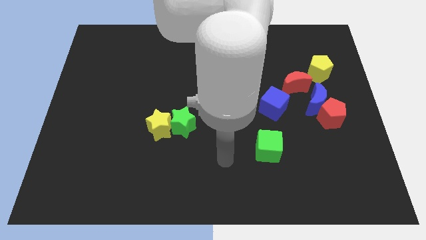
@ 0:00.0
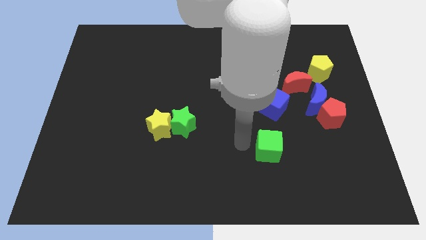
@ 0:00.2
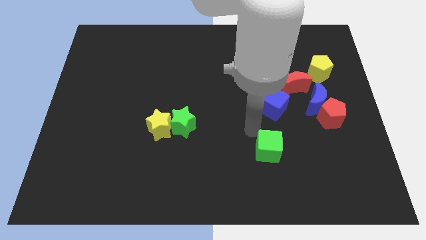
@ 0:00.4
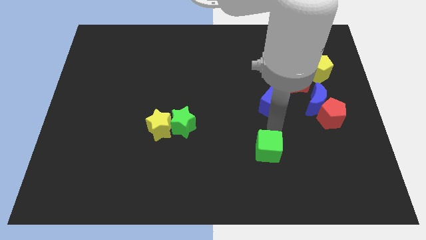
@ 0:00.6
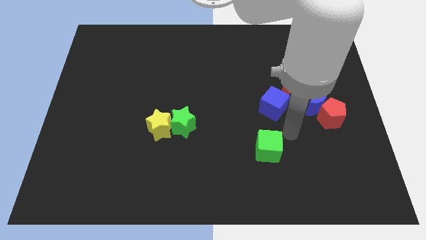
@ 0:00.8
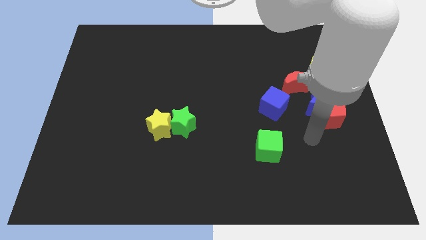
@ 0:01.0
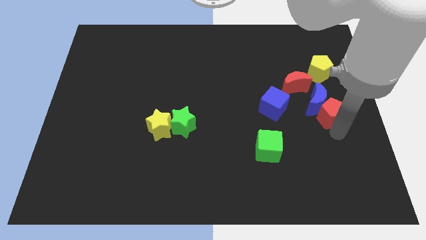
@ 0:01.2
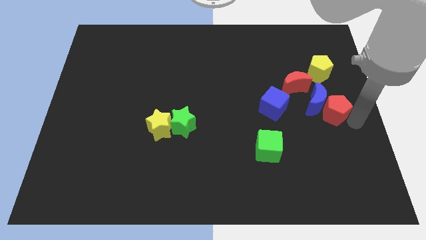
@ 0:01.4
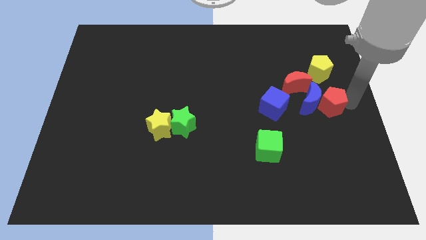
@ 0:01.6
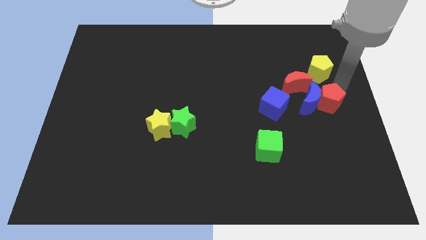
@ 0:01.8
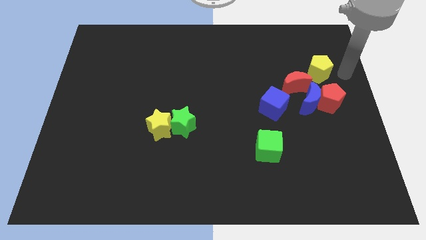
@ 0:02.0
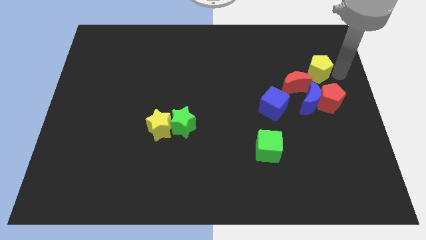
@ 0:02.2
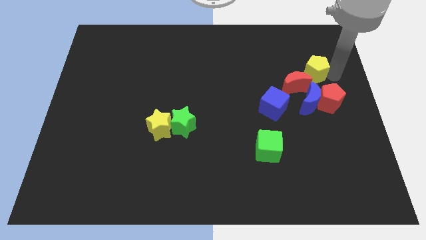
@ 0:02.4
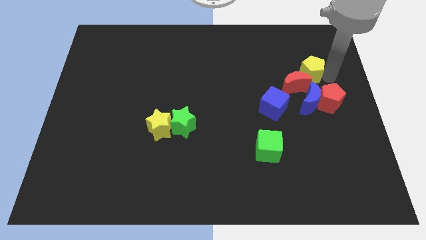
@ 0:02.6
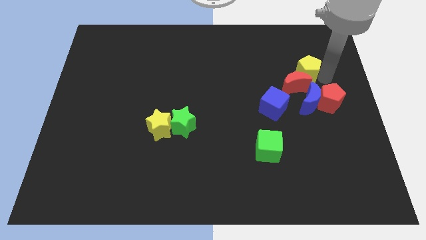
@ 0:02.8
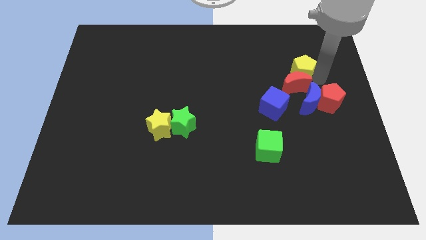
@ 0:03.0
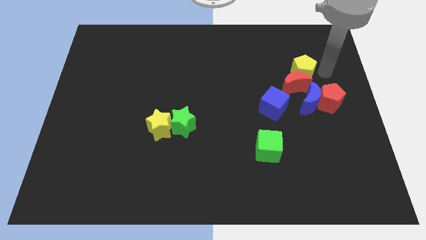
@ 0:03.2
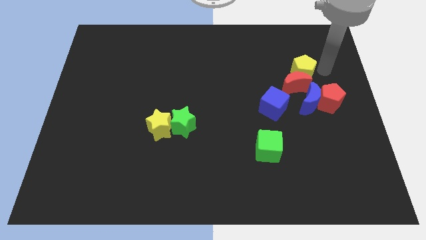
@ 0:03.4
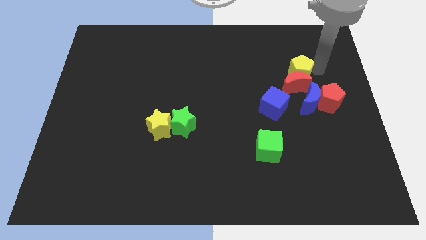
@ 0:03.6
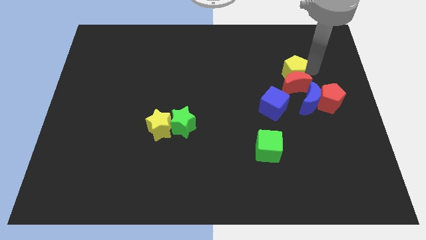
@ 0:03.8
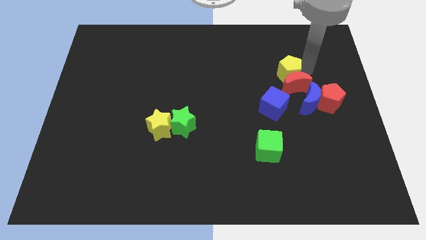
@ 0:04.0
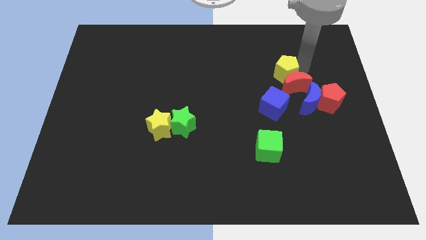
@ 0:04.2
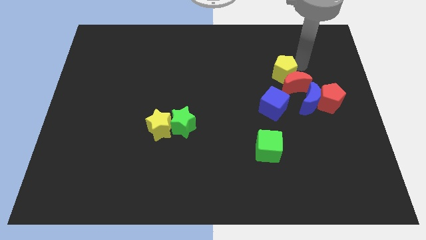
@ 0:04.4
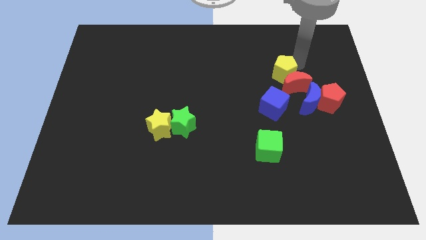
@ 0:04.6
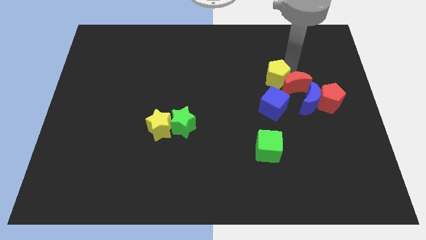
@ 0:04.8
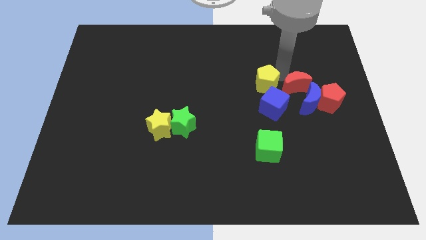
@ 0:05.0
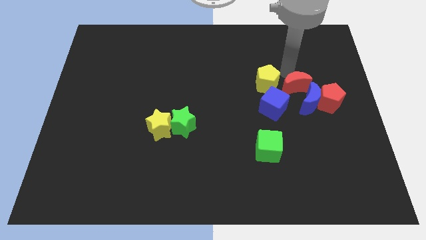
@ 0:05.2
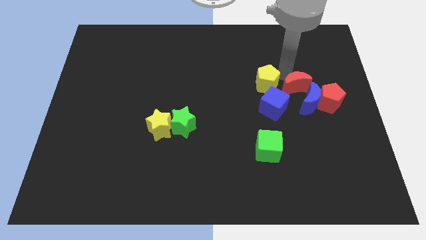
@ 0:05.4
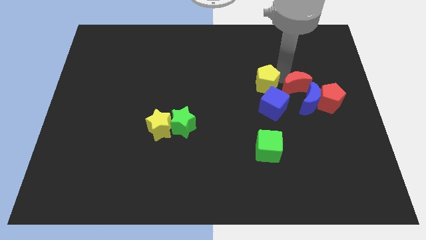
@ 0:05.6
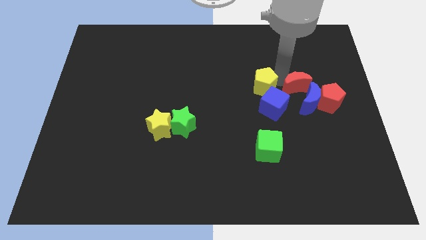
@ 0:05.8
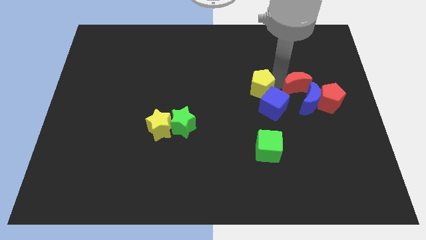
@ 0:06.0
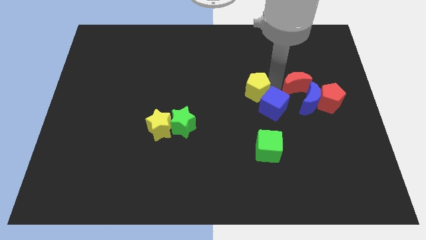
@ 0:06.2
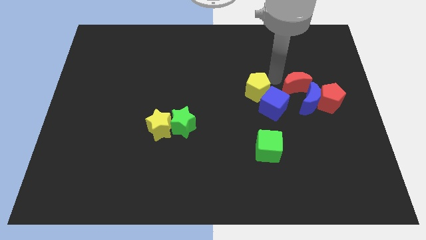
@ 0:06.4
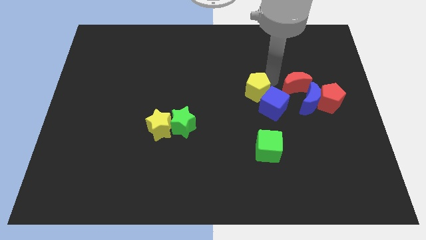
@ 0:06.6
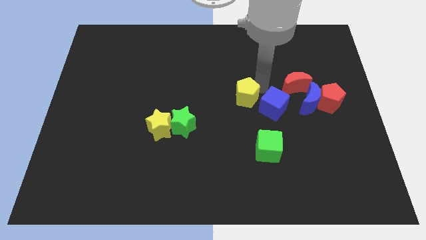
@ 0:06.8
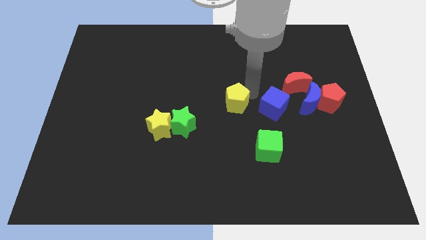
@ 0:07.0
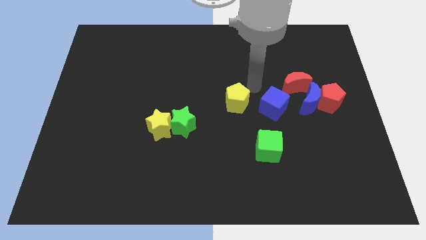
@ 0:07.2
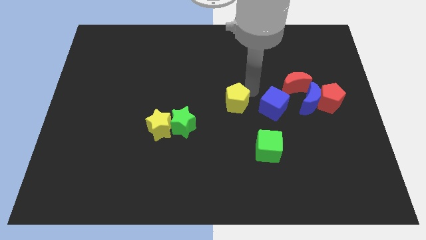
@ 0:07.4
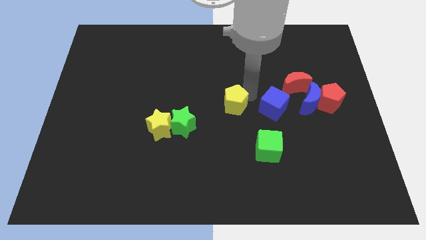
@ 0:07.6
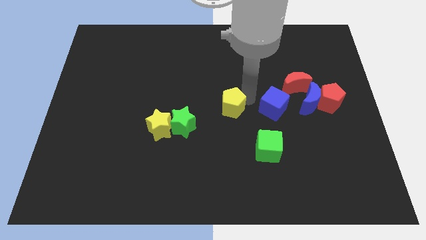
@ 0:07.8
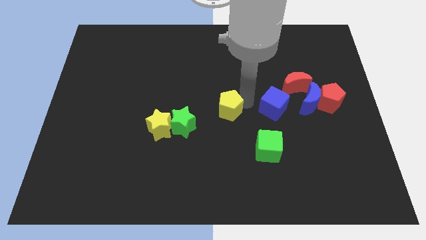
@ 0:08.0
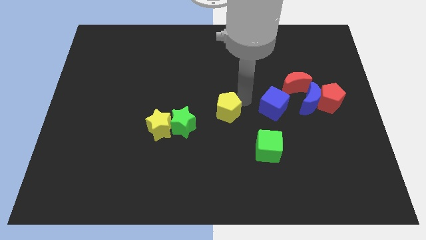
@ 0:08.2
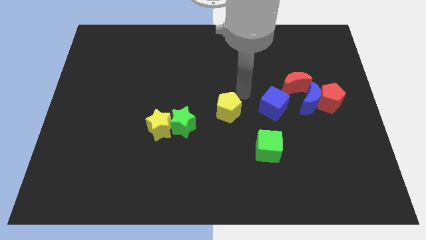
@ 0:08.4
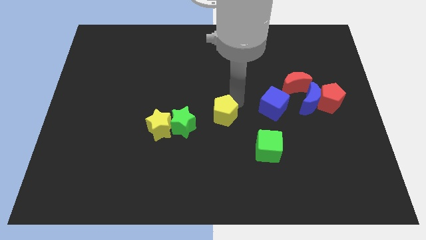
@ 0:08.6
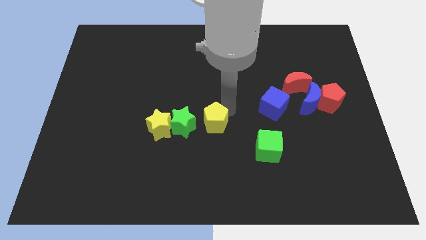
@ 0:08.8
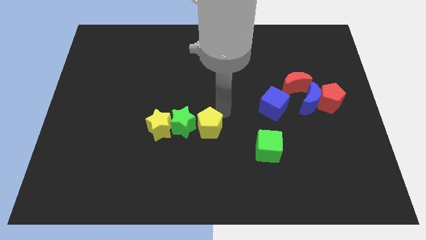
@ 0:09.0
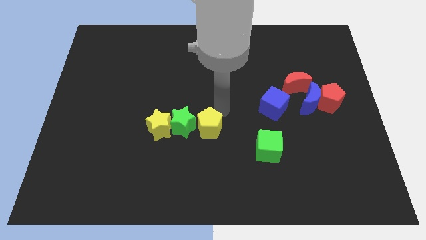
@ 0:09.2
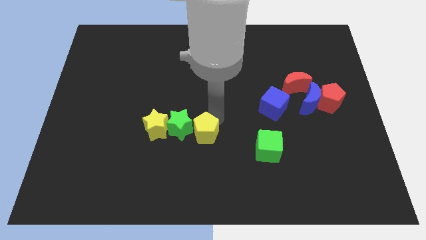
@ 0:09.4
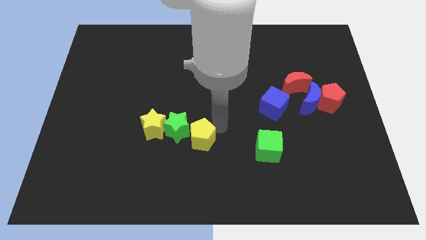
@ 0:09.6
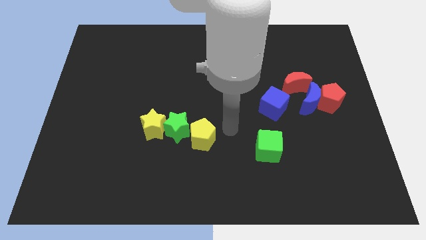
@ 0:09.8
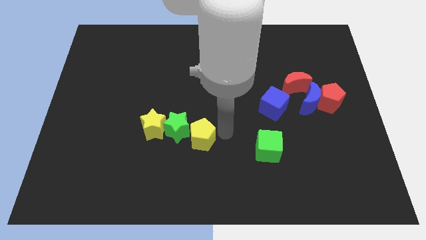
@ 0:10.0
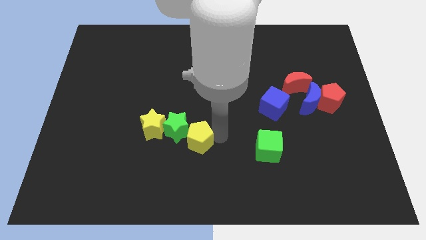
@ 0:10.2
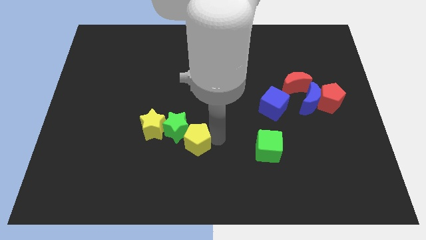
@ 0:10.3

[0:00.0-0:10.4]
move the yellow pentagon to the bottom right of the yellow star

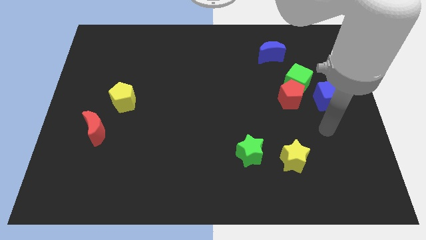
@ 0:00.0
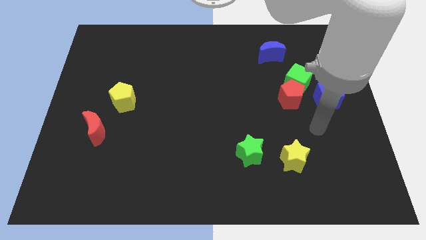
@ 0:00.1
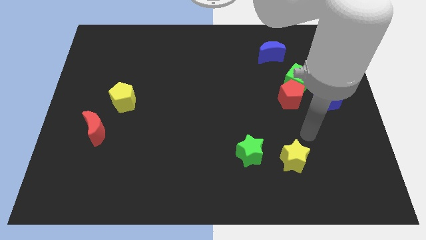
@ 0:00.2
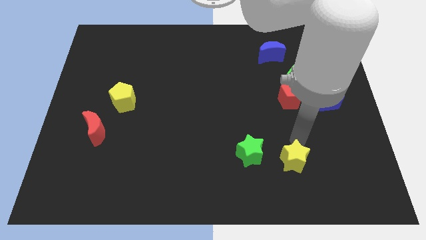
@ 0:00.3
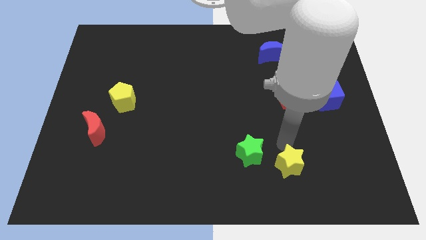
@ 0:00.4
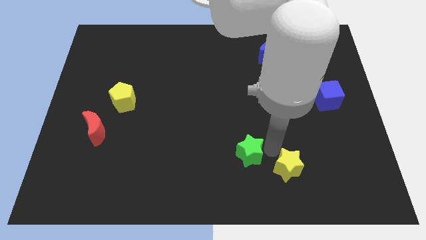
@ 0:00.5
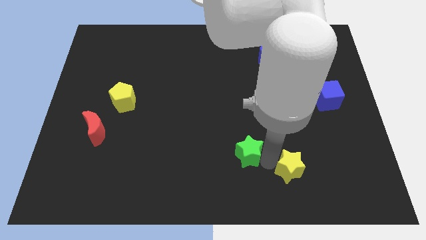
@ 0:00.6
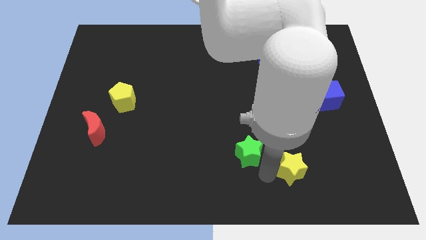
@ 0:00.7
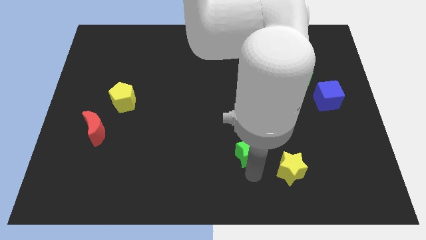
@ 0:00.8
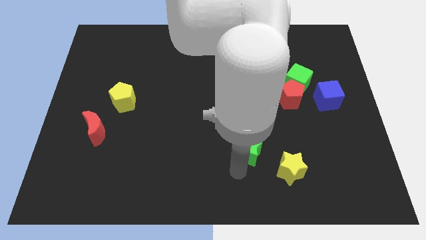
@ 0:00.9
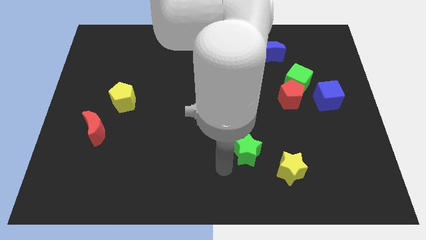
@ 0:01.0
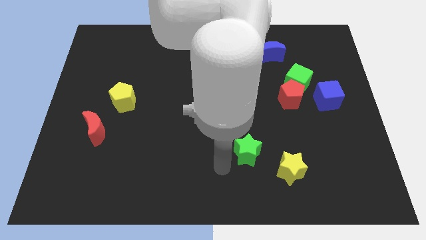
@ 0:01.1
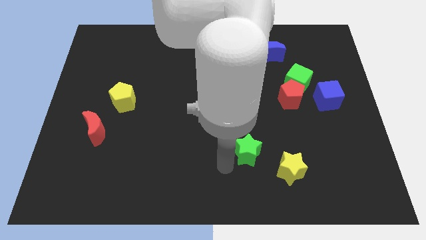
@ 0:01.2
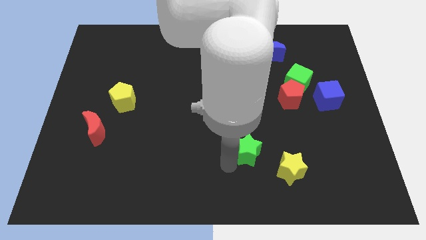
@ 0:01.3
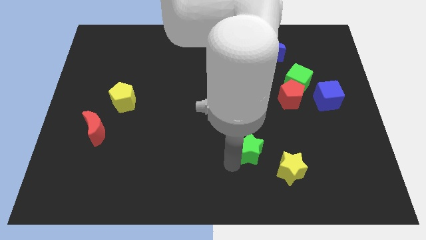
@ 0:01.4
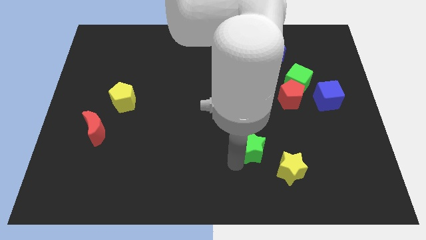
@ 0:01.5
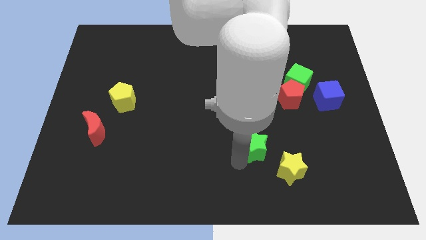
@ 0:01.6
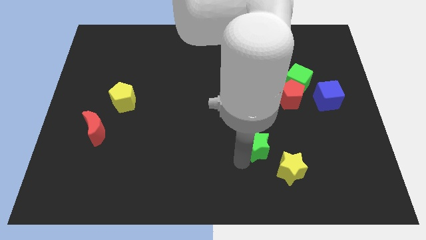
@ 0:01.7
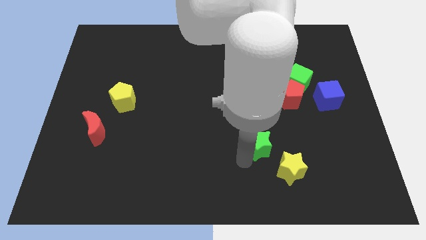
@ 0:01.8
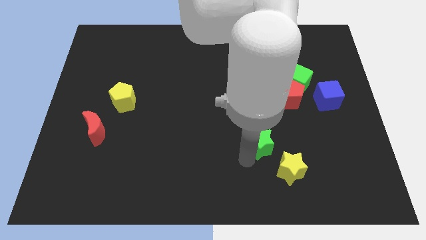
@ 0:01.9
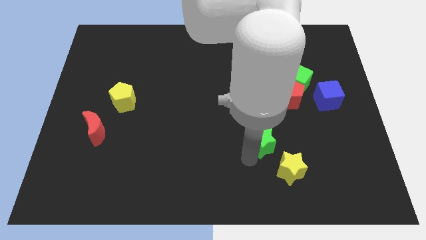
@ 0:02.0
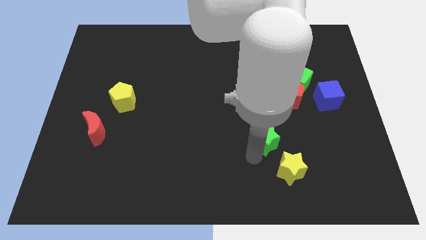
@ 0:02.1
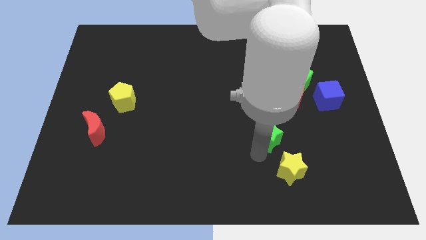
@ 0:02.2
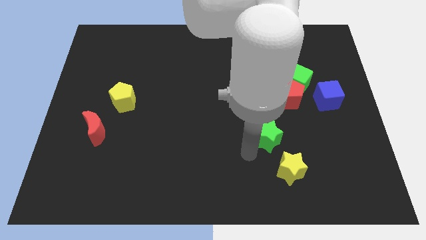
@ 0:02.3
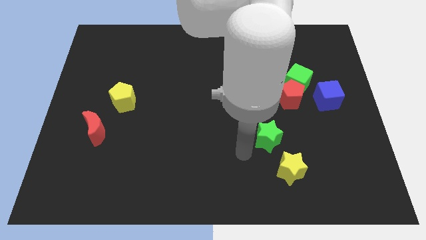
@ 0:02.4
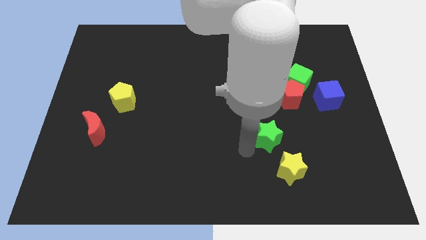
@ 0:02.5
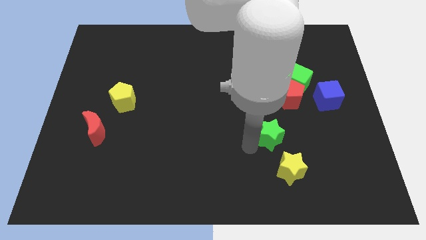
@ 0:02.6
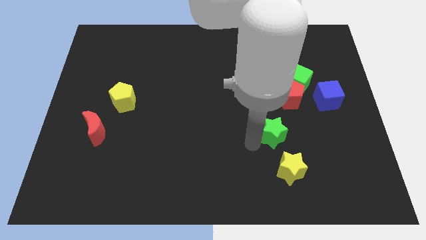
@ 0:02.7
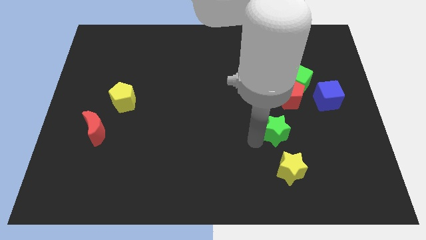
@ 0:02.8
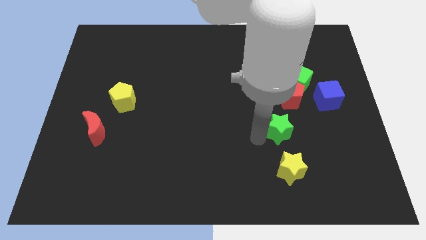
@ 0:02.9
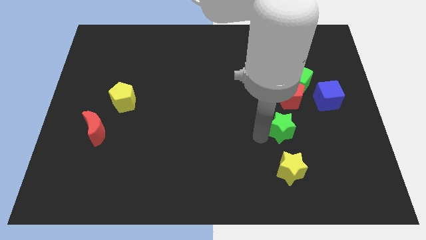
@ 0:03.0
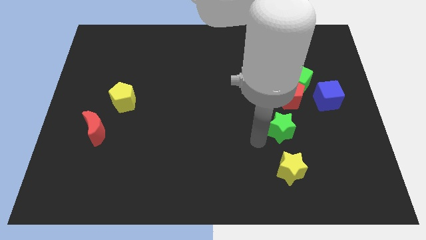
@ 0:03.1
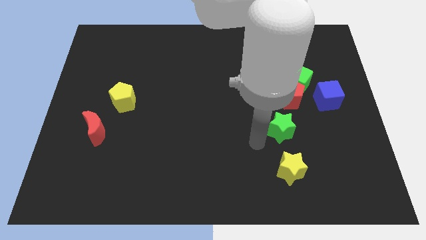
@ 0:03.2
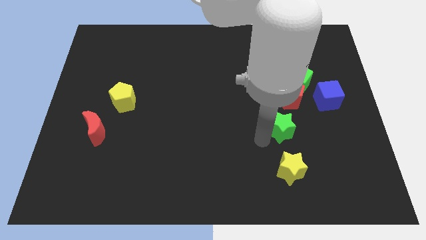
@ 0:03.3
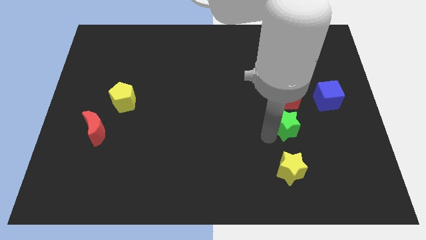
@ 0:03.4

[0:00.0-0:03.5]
slide the green star to the bottom side of the green cube
